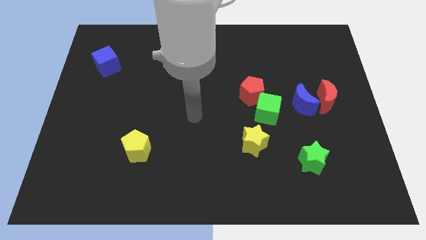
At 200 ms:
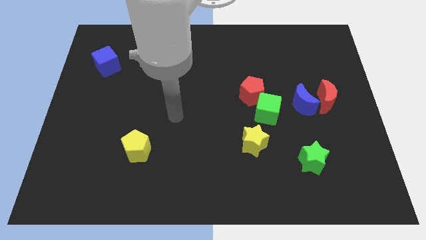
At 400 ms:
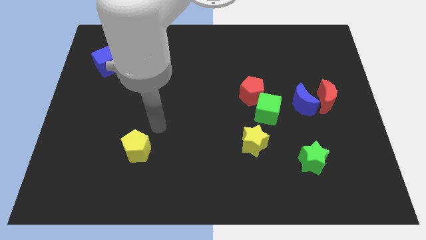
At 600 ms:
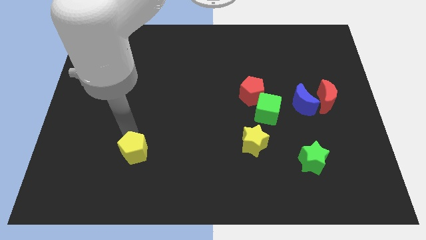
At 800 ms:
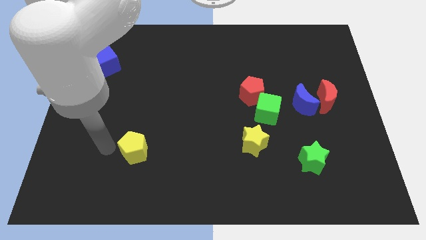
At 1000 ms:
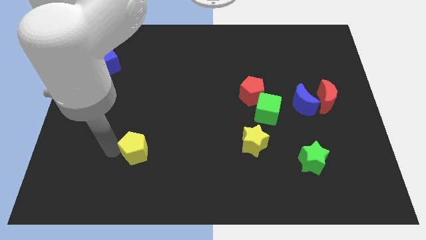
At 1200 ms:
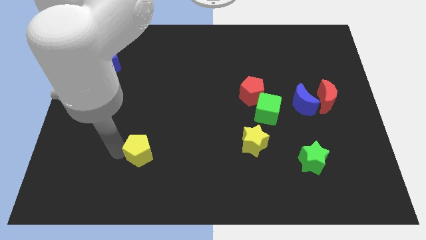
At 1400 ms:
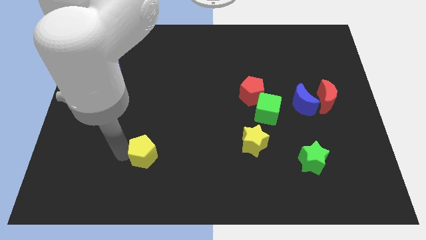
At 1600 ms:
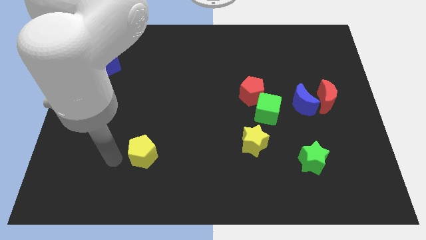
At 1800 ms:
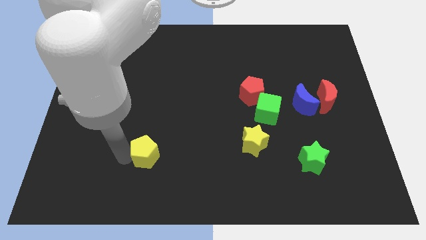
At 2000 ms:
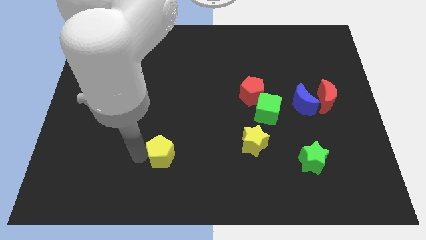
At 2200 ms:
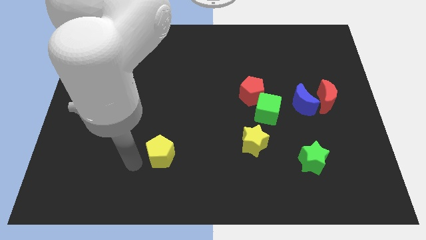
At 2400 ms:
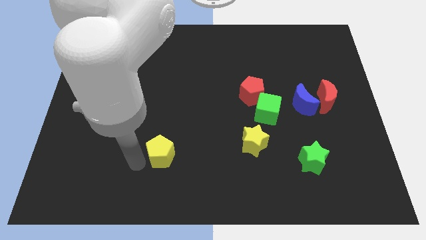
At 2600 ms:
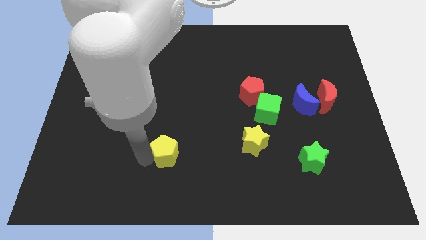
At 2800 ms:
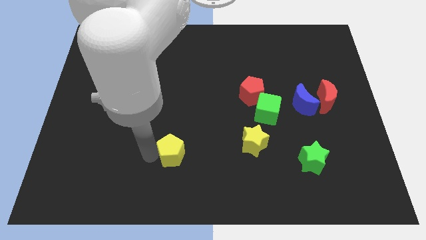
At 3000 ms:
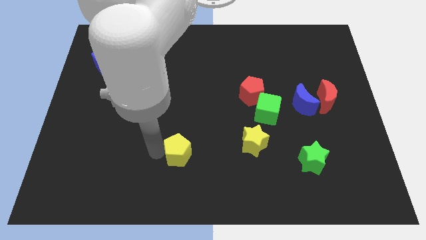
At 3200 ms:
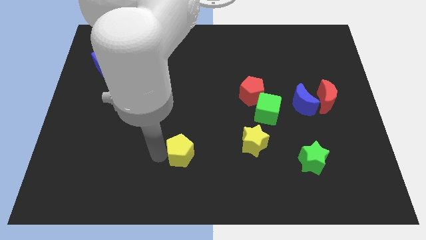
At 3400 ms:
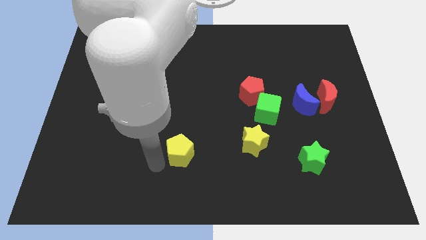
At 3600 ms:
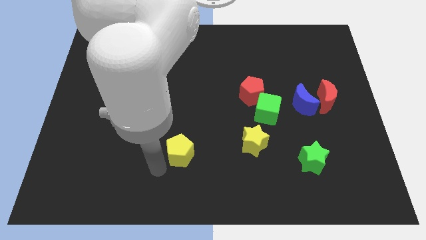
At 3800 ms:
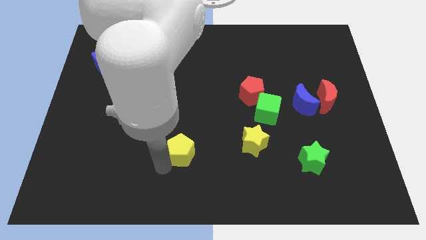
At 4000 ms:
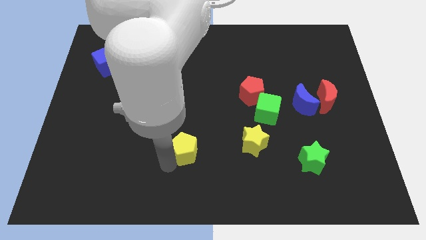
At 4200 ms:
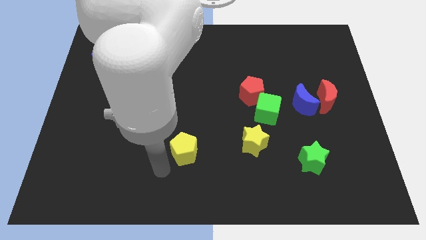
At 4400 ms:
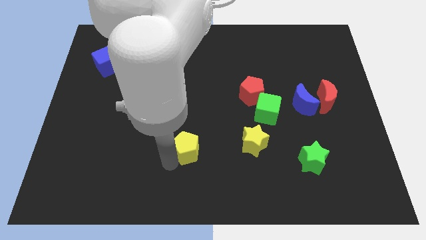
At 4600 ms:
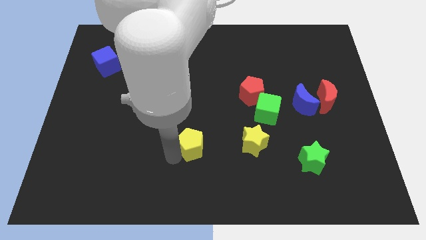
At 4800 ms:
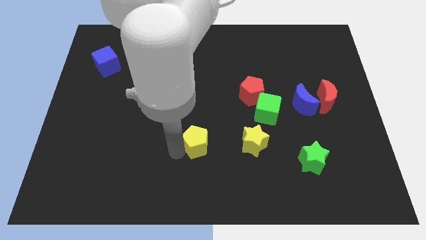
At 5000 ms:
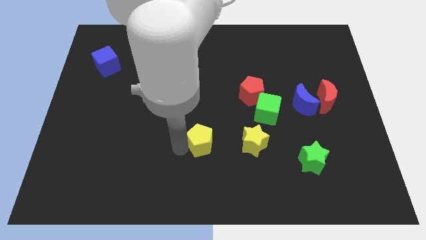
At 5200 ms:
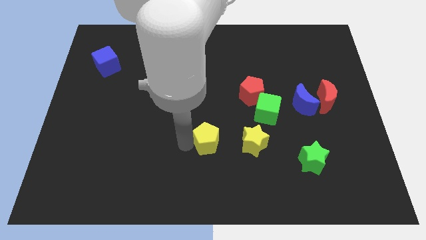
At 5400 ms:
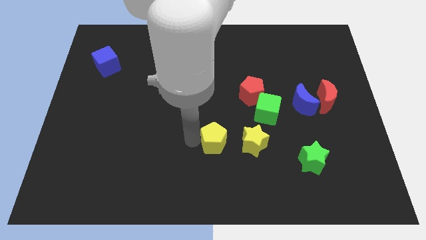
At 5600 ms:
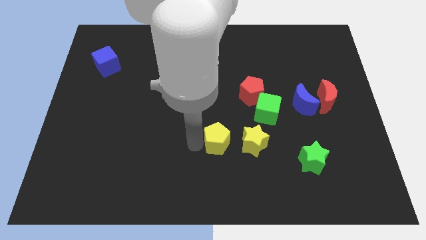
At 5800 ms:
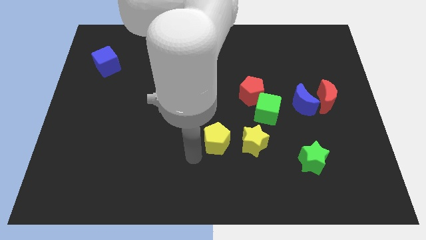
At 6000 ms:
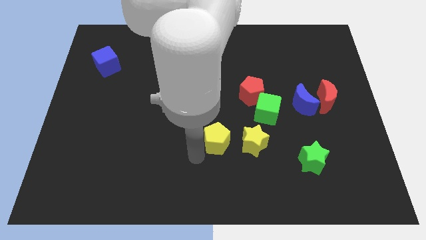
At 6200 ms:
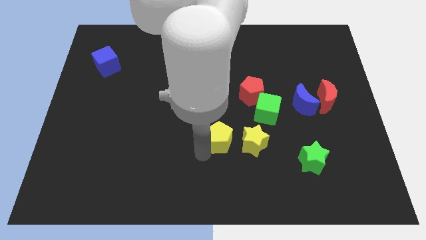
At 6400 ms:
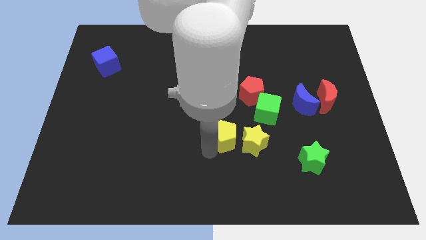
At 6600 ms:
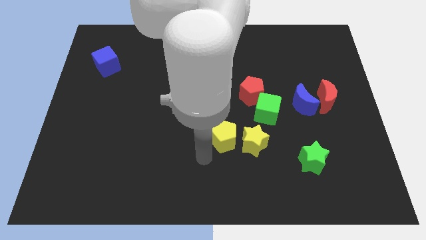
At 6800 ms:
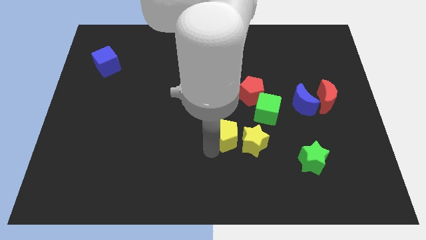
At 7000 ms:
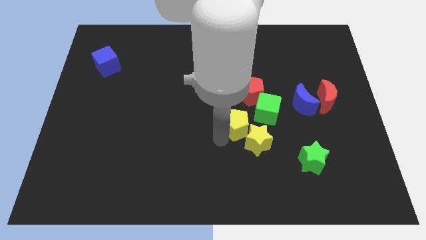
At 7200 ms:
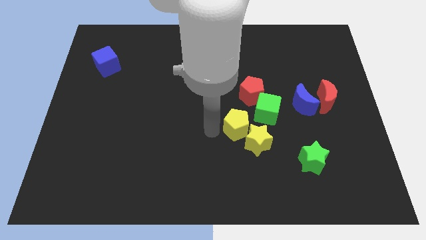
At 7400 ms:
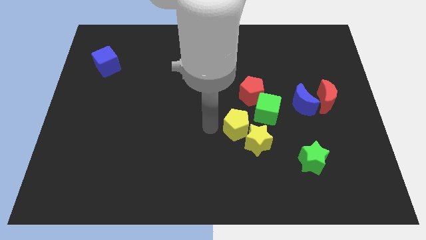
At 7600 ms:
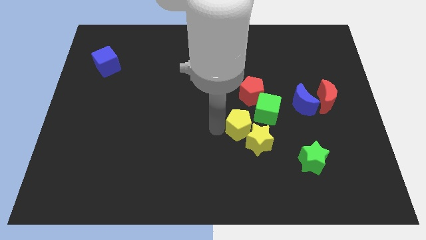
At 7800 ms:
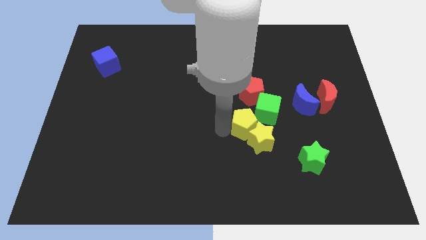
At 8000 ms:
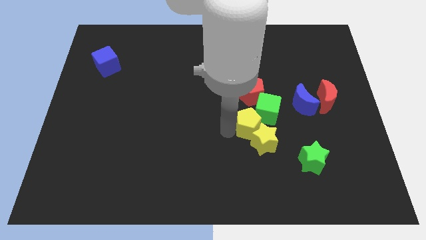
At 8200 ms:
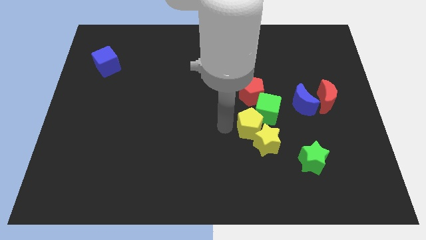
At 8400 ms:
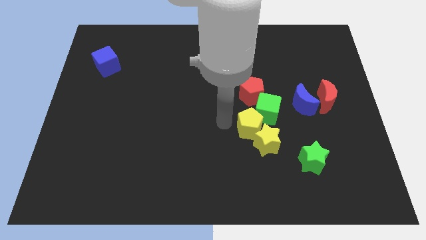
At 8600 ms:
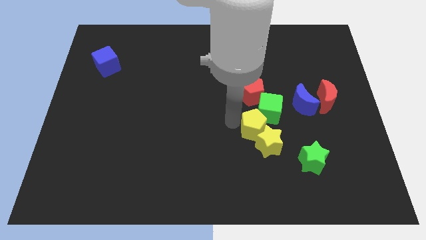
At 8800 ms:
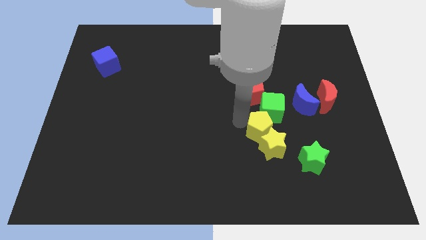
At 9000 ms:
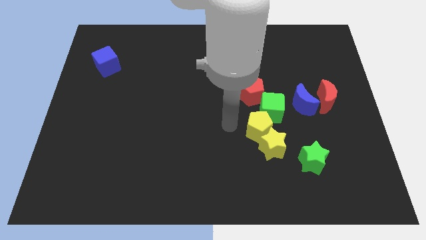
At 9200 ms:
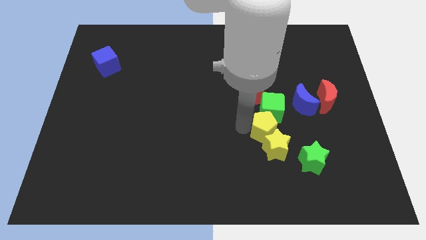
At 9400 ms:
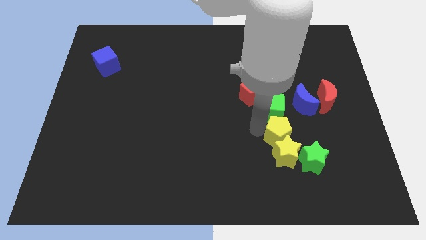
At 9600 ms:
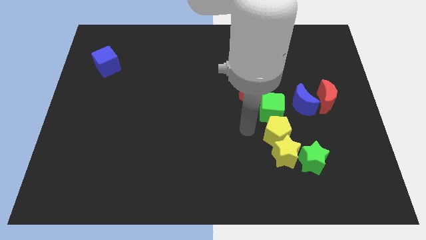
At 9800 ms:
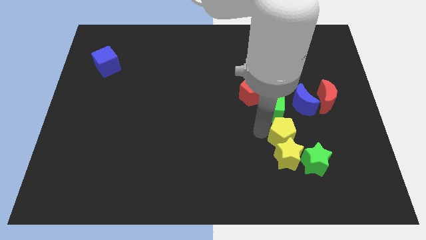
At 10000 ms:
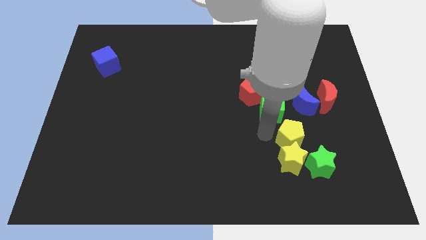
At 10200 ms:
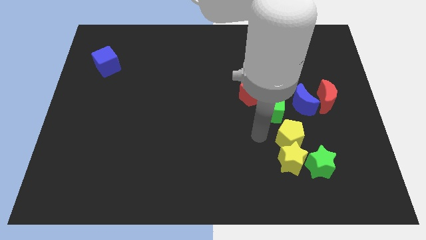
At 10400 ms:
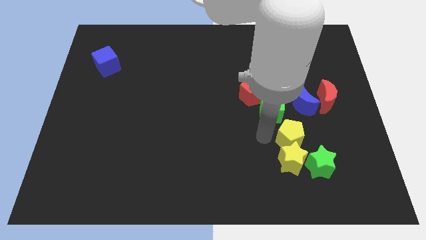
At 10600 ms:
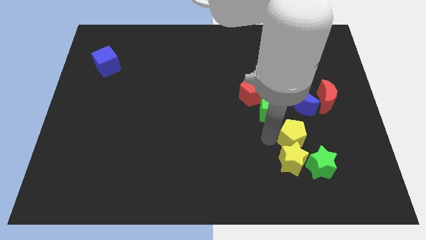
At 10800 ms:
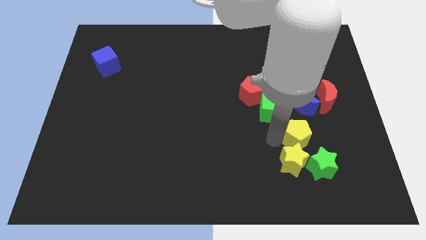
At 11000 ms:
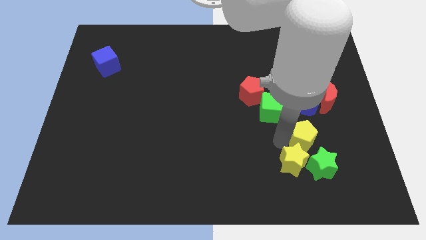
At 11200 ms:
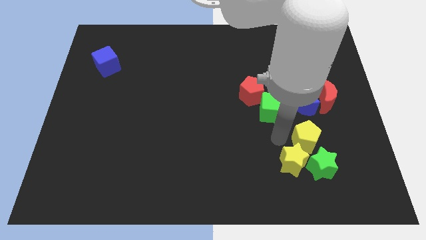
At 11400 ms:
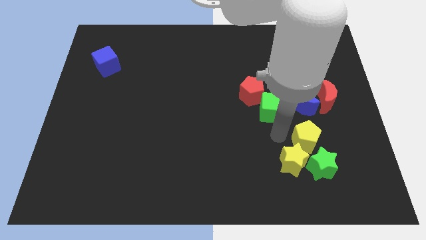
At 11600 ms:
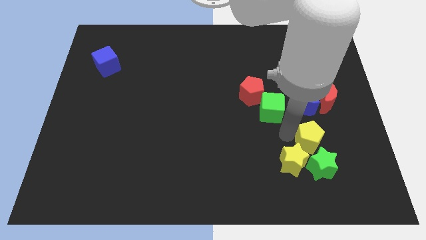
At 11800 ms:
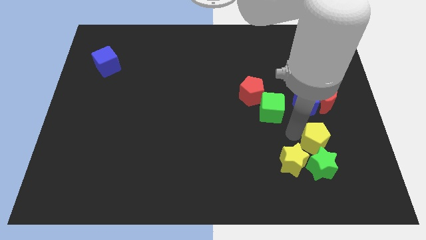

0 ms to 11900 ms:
slide the yellow pentagon to the top right of the green star

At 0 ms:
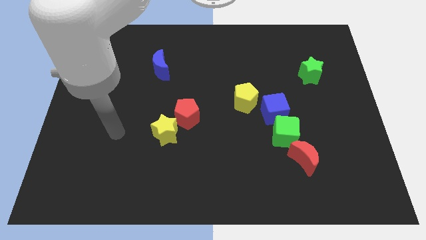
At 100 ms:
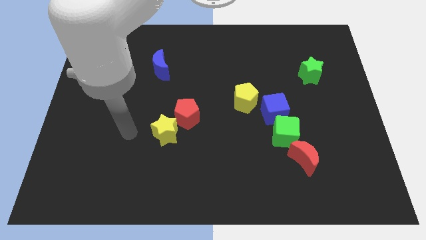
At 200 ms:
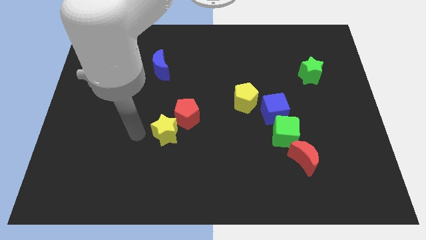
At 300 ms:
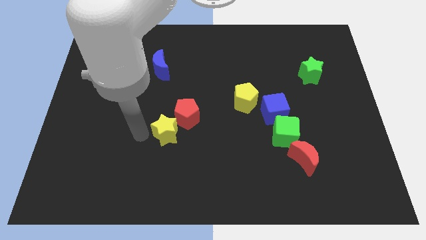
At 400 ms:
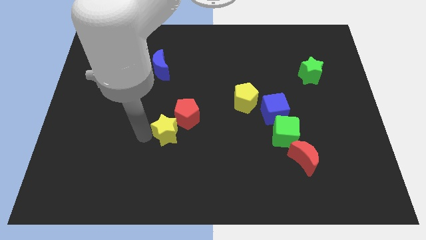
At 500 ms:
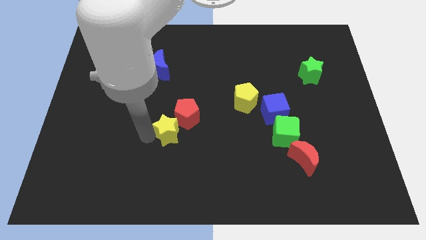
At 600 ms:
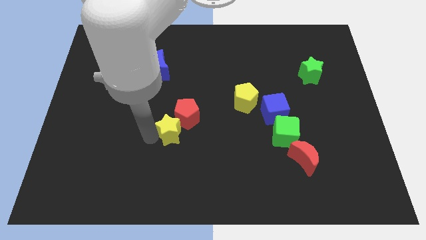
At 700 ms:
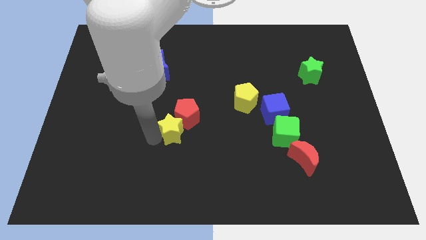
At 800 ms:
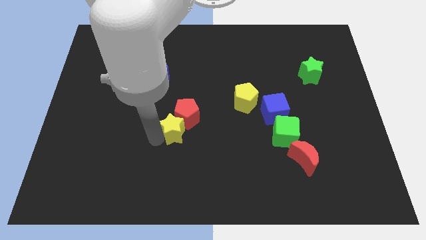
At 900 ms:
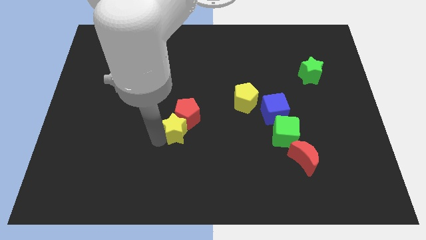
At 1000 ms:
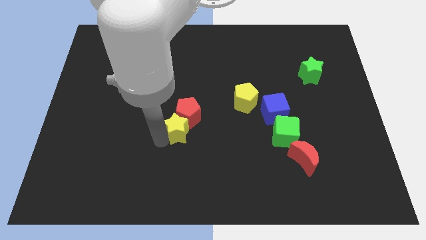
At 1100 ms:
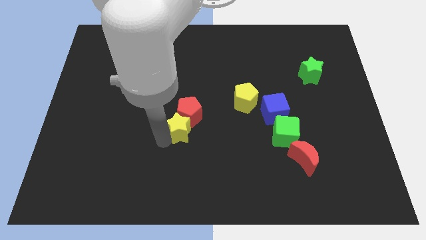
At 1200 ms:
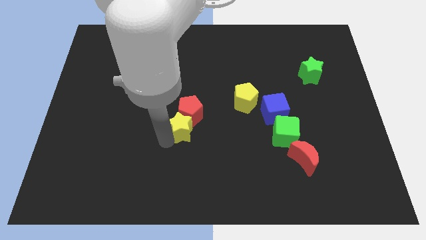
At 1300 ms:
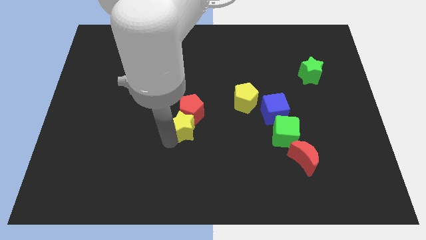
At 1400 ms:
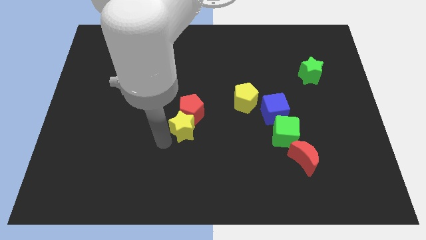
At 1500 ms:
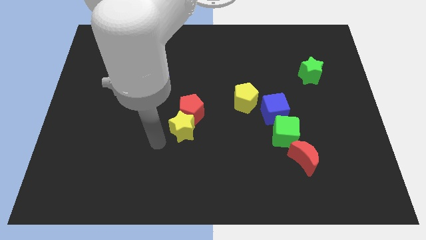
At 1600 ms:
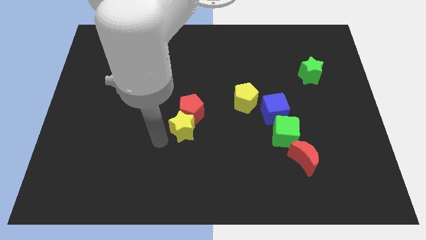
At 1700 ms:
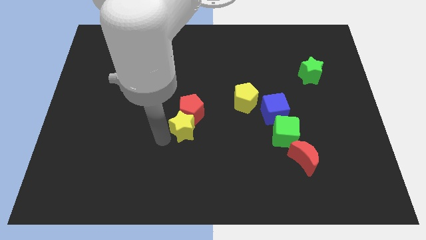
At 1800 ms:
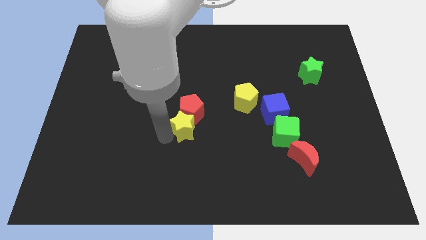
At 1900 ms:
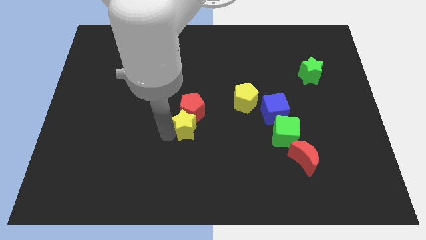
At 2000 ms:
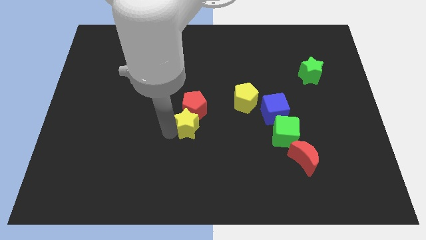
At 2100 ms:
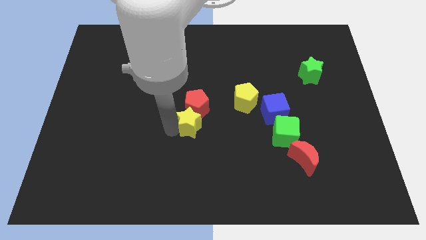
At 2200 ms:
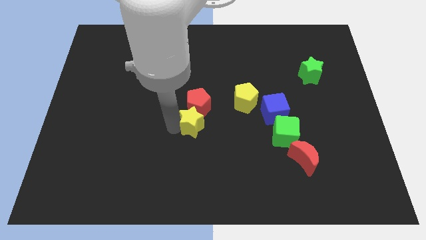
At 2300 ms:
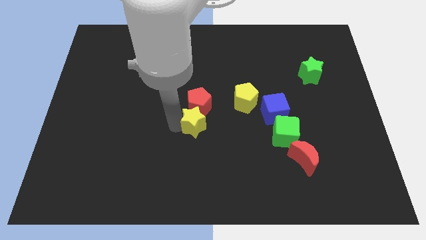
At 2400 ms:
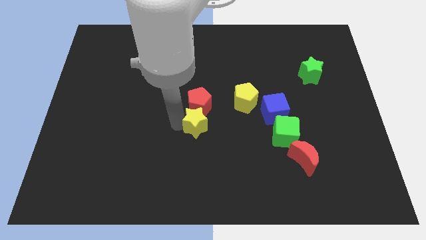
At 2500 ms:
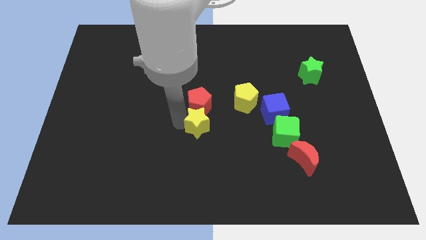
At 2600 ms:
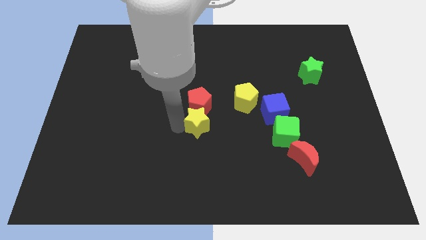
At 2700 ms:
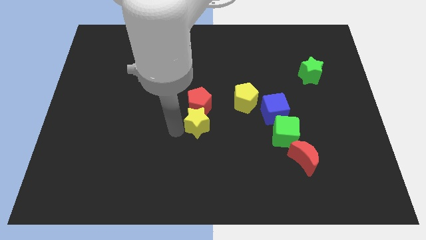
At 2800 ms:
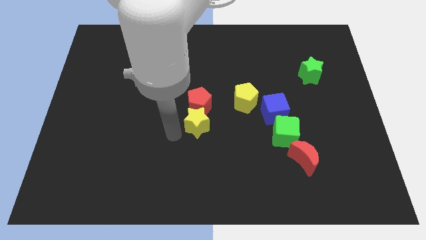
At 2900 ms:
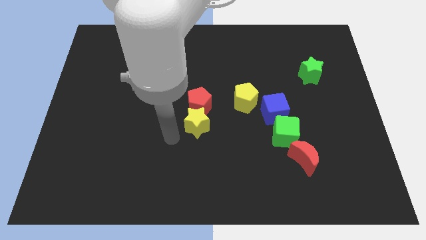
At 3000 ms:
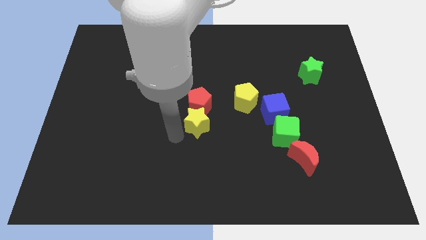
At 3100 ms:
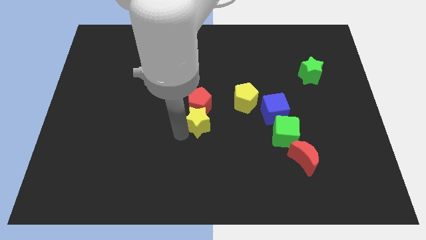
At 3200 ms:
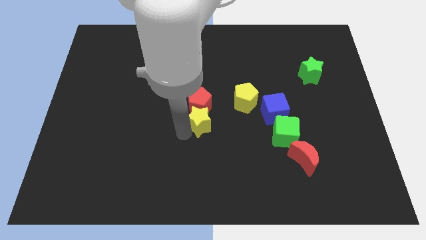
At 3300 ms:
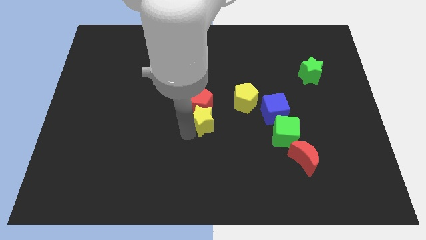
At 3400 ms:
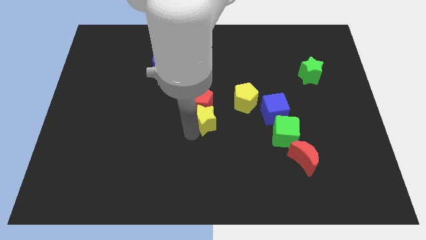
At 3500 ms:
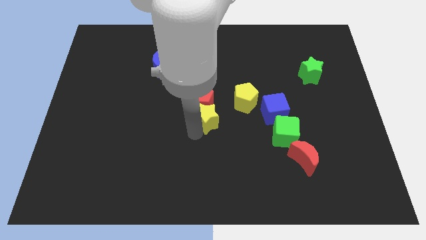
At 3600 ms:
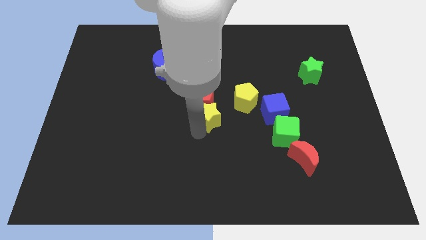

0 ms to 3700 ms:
push the yellow star left of the blue cube
